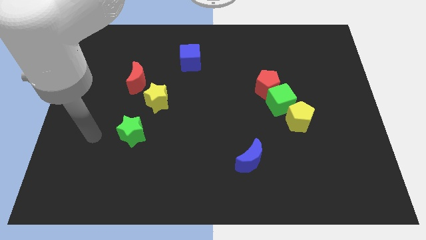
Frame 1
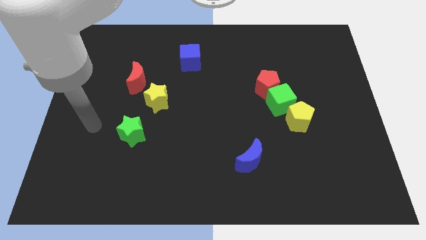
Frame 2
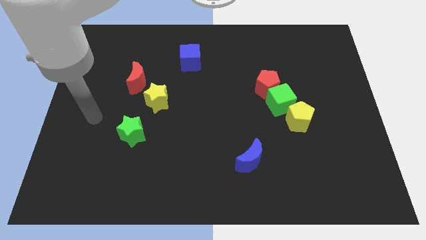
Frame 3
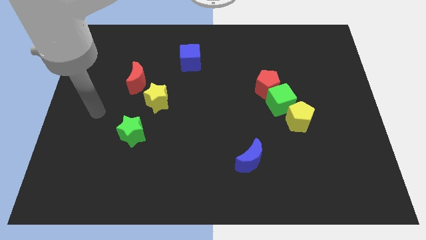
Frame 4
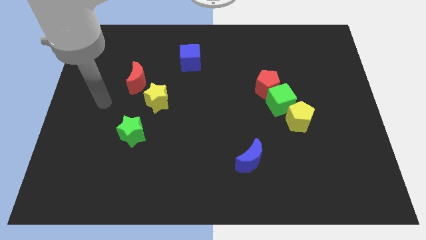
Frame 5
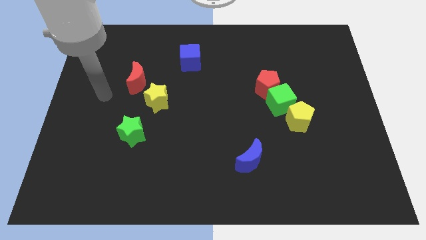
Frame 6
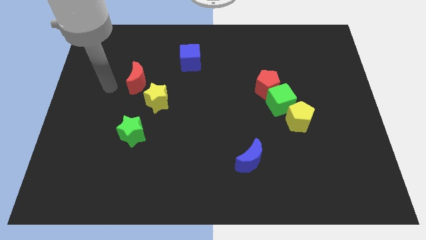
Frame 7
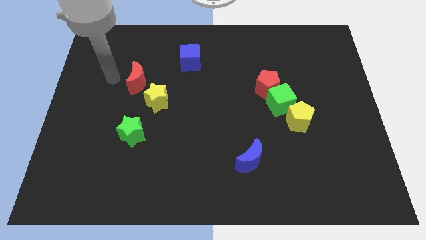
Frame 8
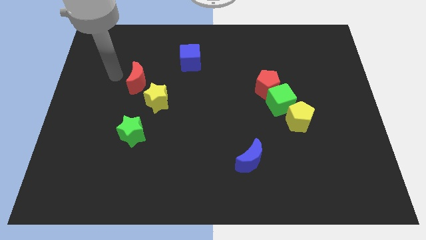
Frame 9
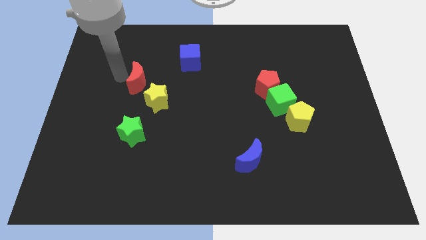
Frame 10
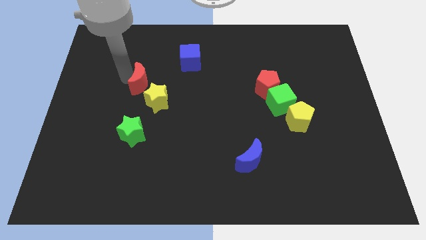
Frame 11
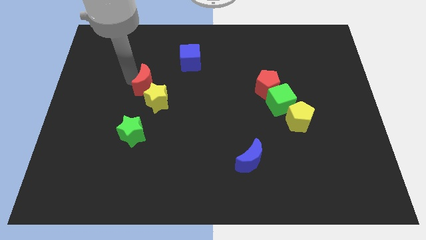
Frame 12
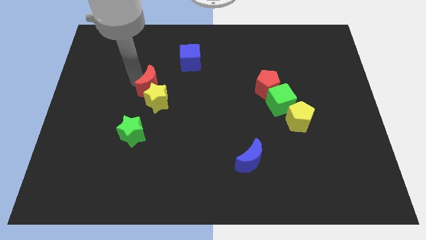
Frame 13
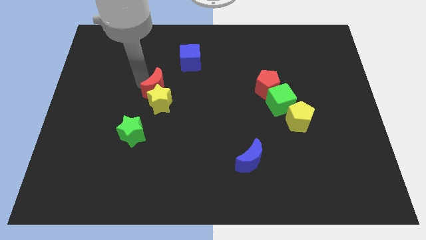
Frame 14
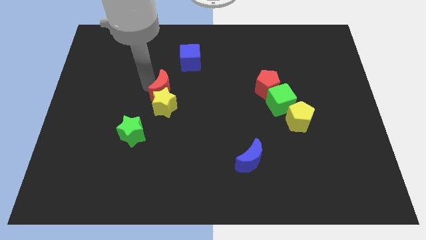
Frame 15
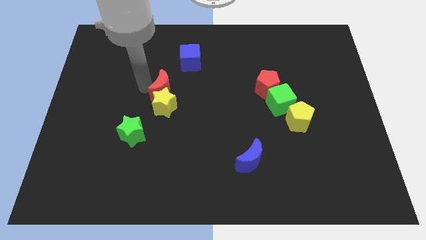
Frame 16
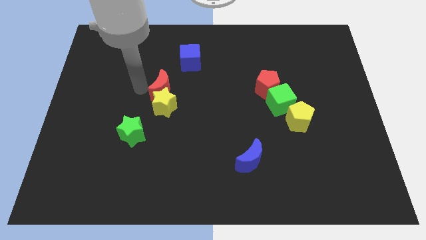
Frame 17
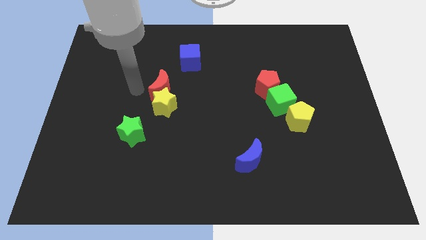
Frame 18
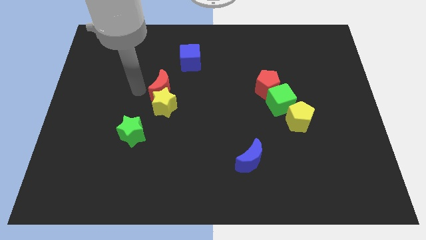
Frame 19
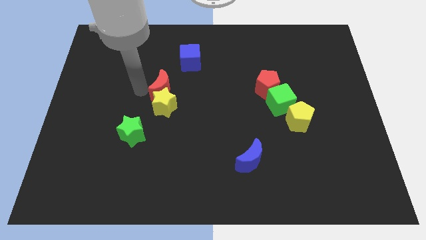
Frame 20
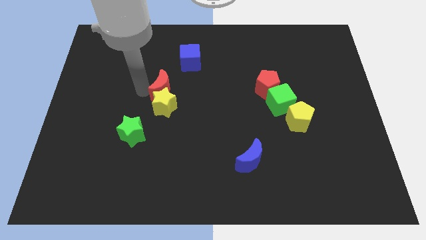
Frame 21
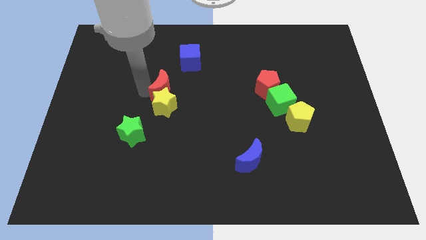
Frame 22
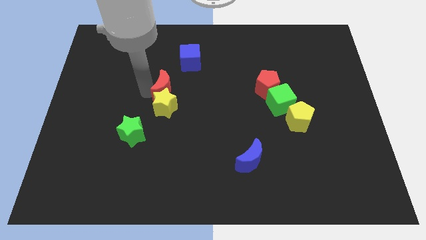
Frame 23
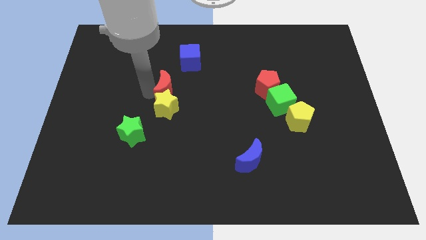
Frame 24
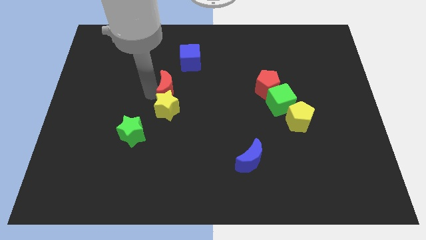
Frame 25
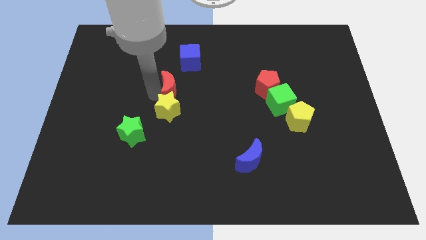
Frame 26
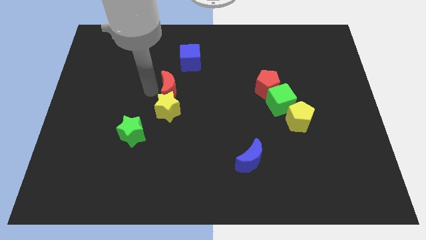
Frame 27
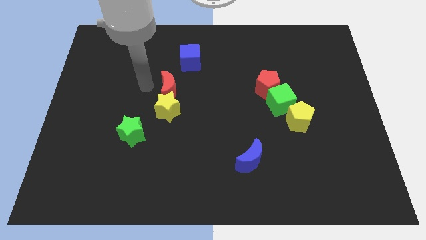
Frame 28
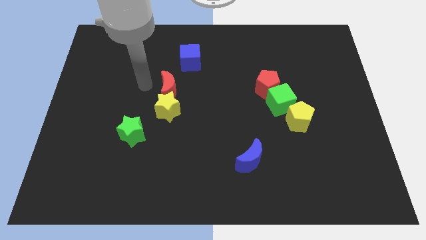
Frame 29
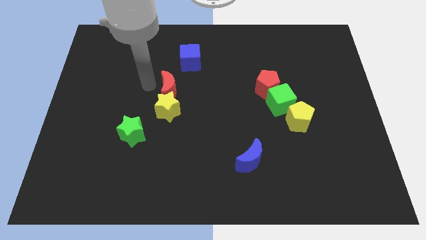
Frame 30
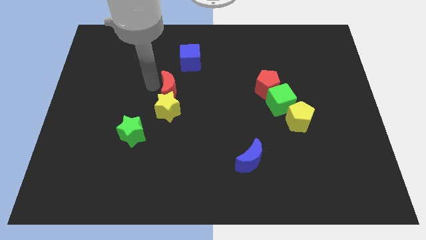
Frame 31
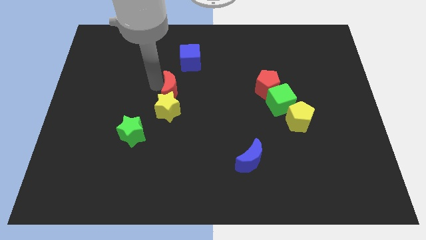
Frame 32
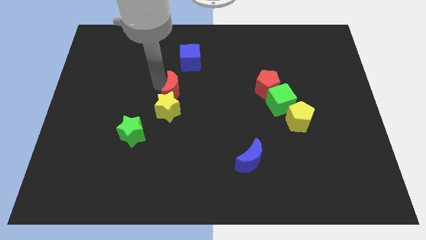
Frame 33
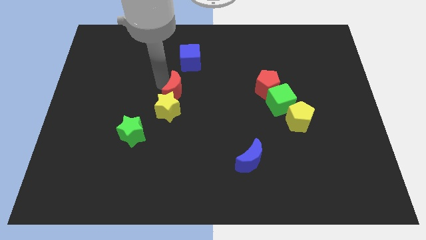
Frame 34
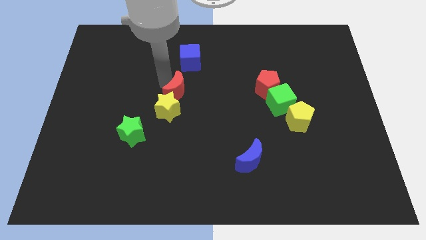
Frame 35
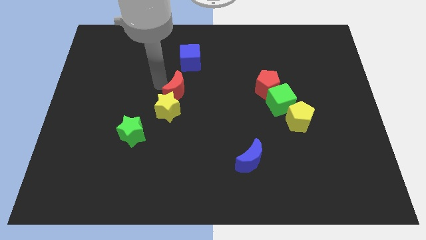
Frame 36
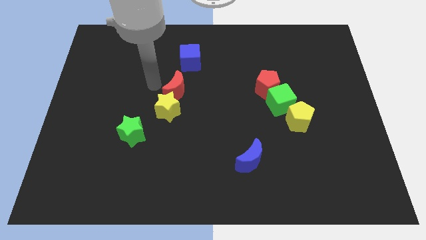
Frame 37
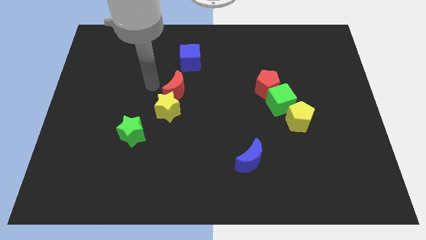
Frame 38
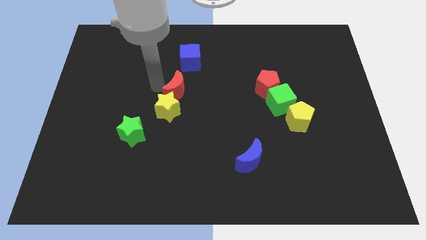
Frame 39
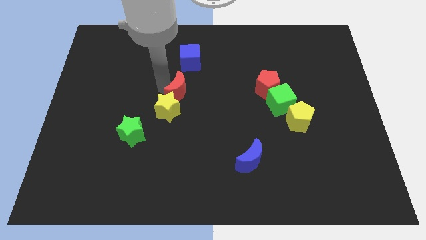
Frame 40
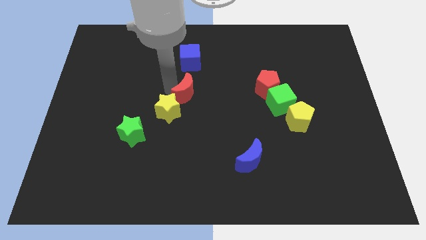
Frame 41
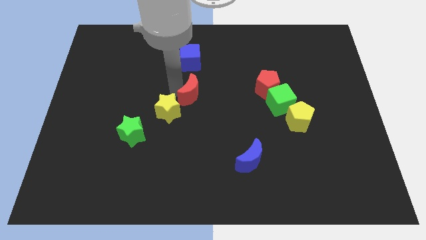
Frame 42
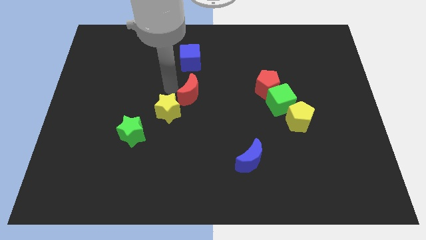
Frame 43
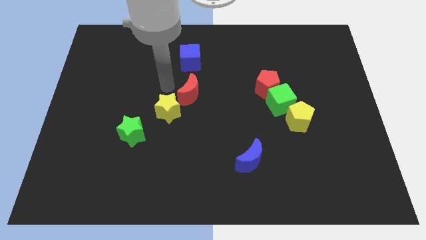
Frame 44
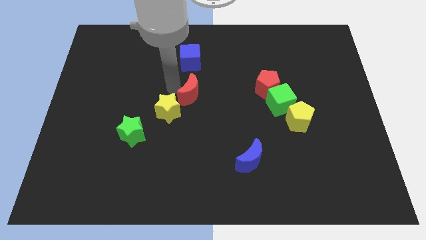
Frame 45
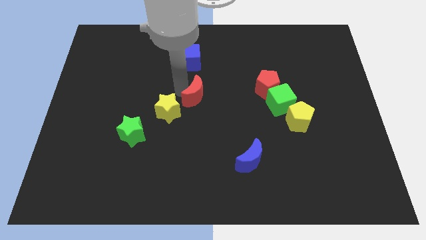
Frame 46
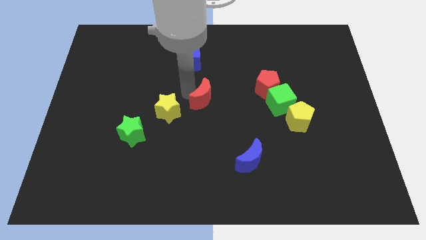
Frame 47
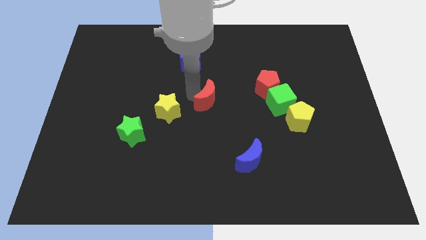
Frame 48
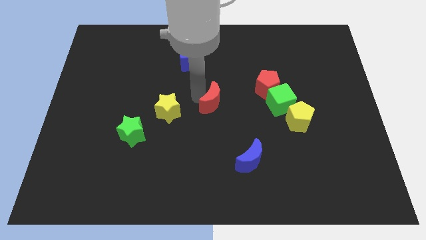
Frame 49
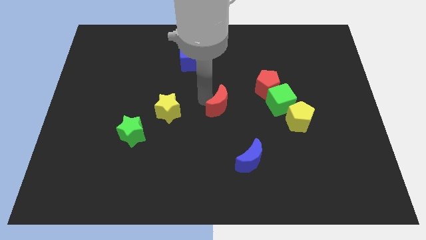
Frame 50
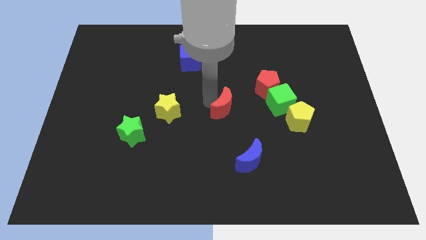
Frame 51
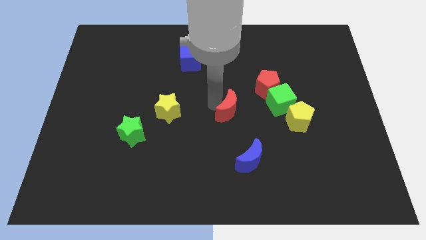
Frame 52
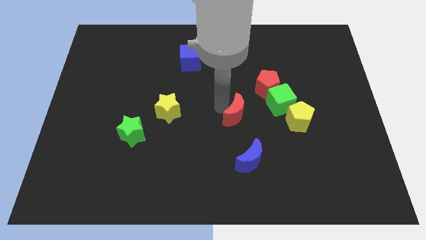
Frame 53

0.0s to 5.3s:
push the red moon left of the yellow pentagon

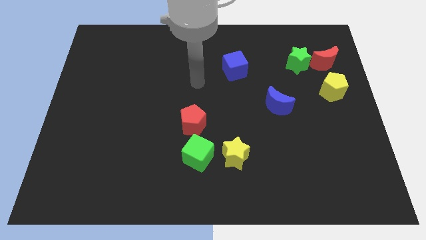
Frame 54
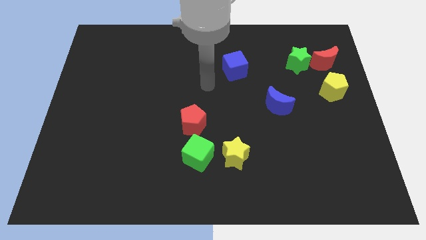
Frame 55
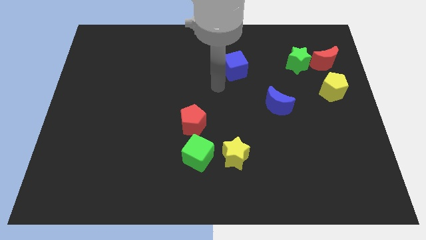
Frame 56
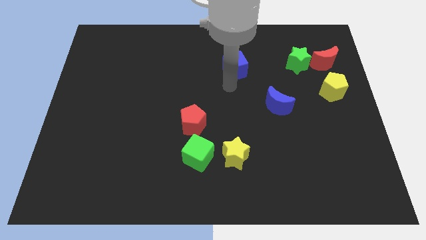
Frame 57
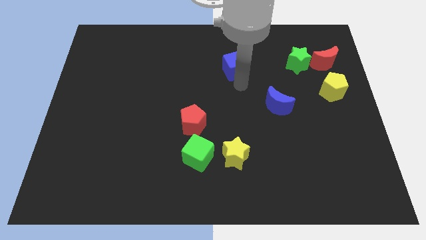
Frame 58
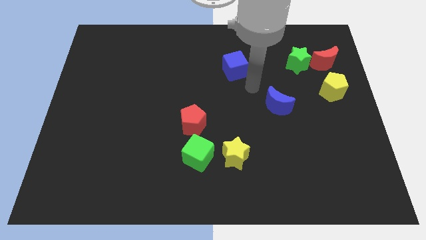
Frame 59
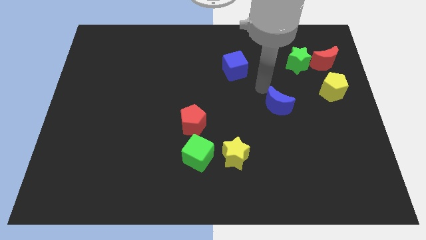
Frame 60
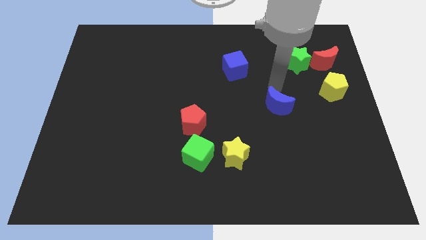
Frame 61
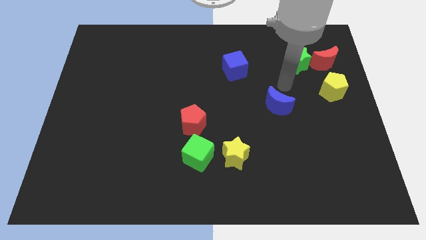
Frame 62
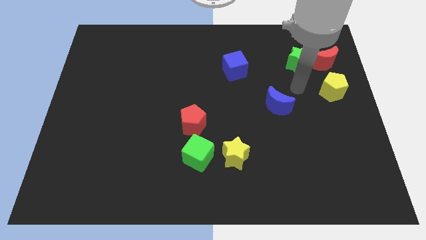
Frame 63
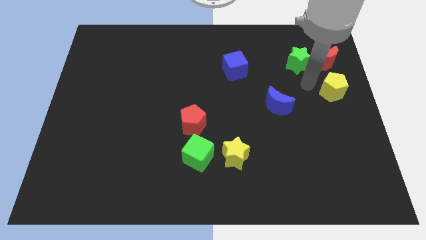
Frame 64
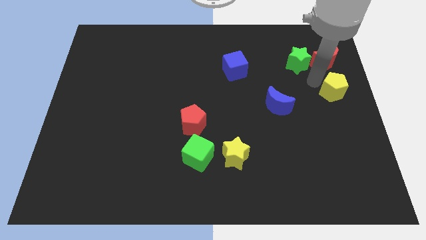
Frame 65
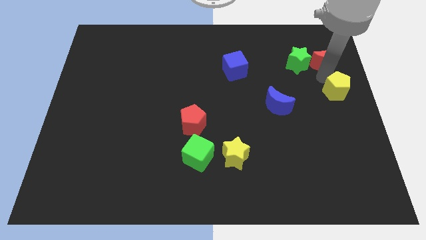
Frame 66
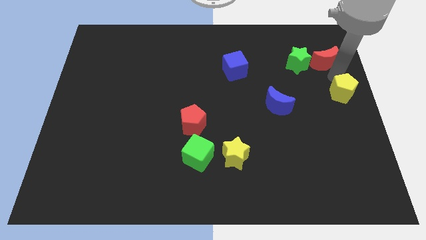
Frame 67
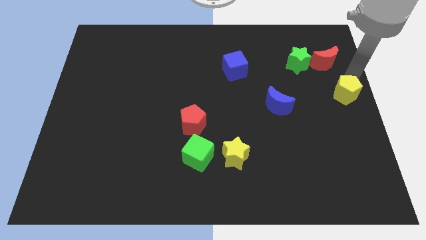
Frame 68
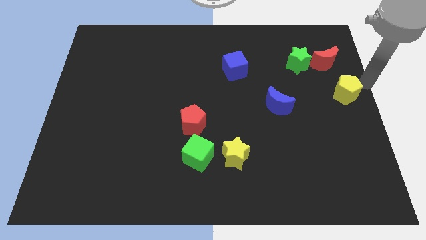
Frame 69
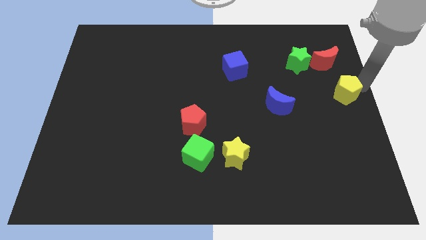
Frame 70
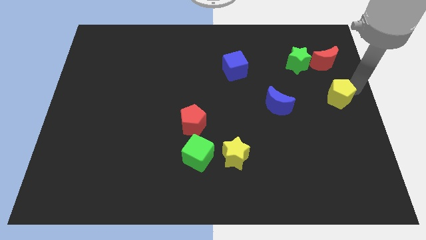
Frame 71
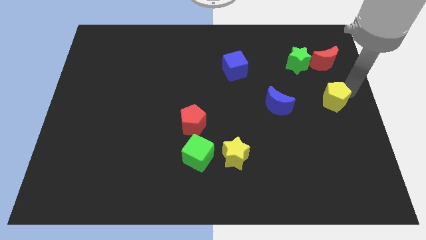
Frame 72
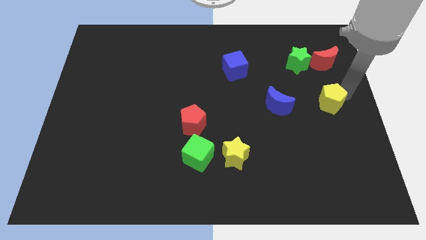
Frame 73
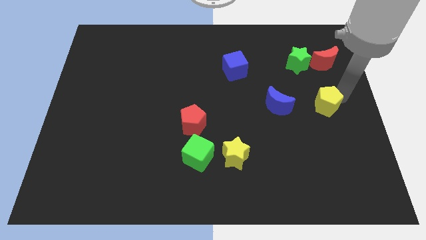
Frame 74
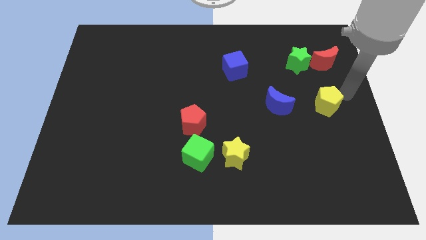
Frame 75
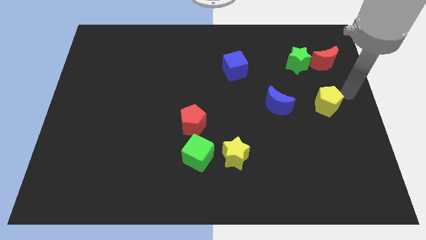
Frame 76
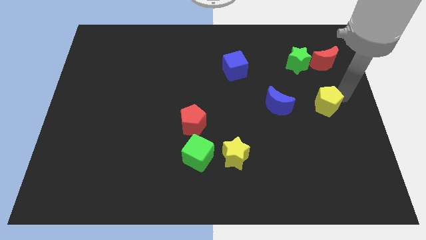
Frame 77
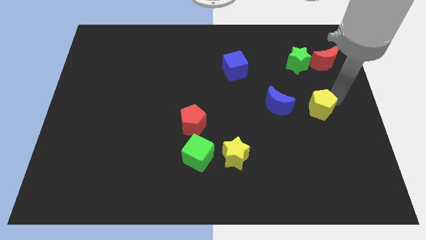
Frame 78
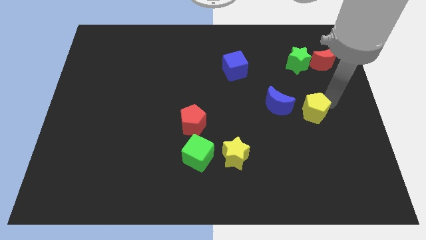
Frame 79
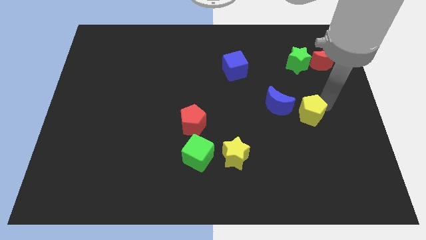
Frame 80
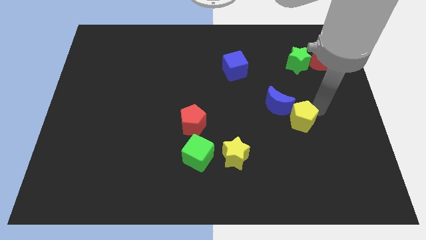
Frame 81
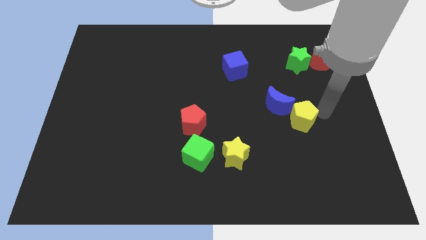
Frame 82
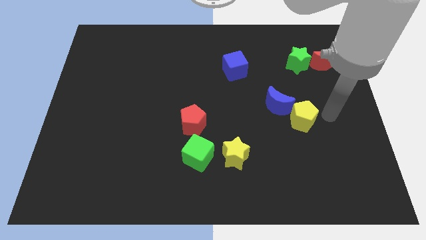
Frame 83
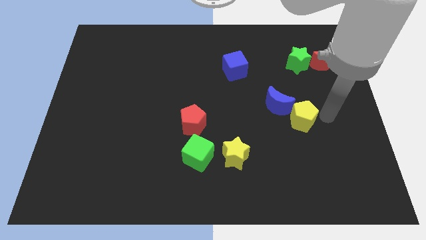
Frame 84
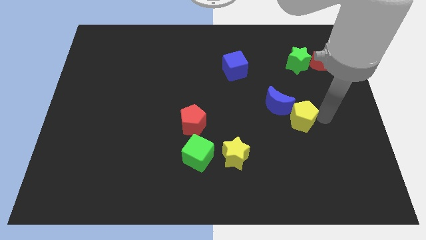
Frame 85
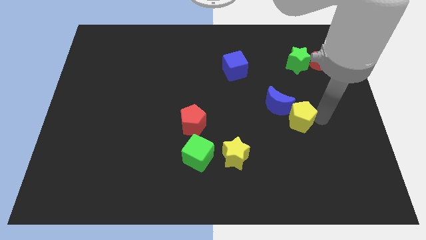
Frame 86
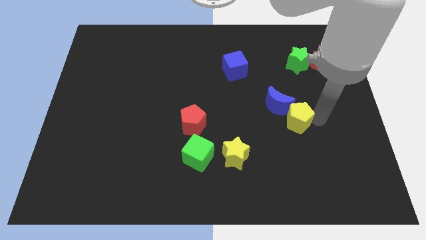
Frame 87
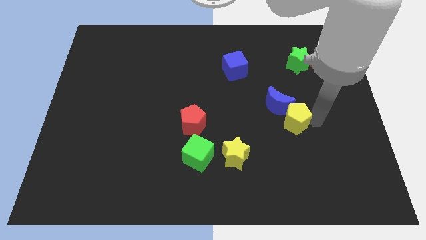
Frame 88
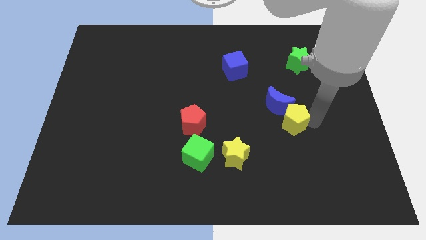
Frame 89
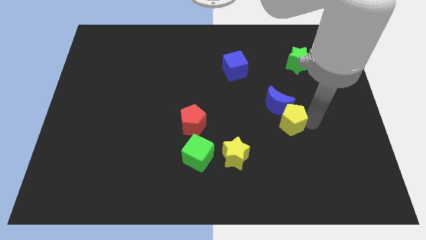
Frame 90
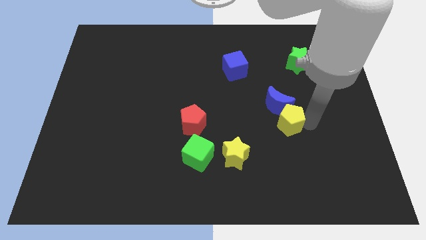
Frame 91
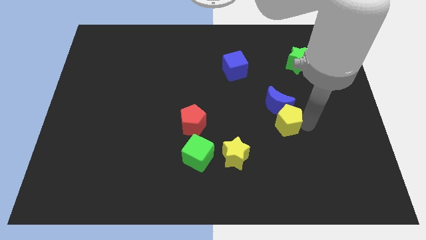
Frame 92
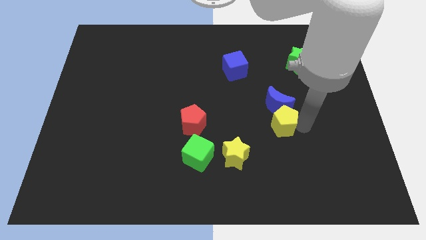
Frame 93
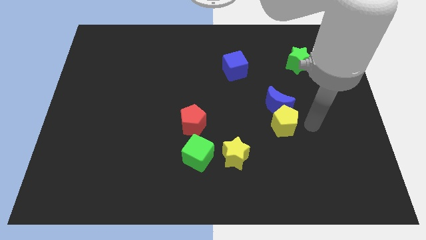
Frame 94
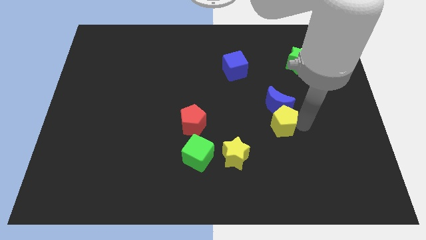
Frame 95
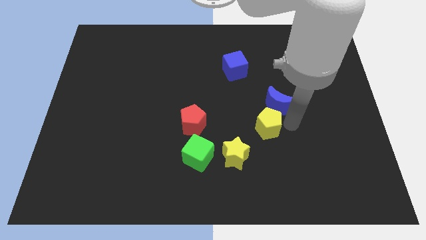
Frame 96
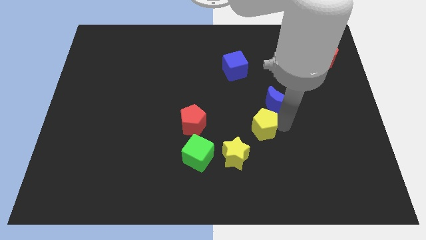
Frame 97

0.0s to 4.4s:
slide the yellow pentagon just right of the red pentagon
